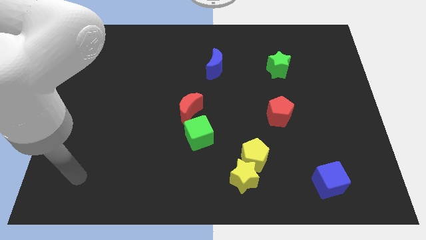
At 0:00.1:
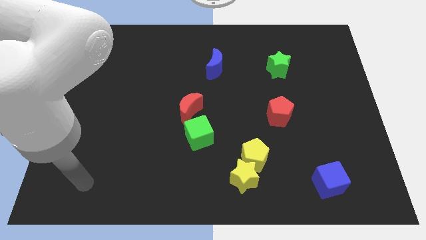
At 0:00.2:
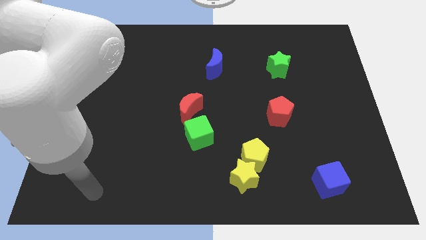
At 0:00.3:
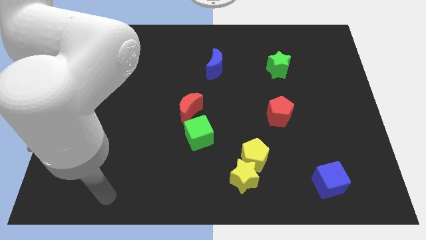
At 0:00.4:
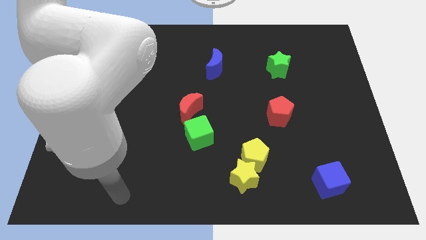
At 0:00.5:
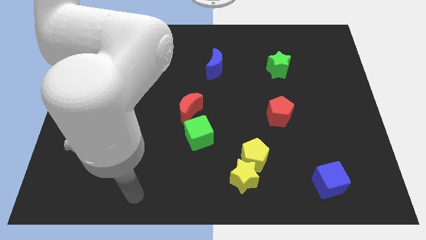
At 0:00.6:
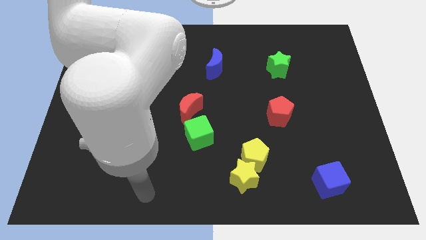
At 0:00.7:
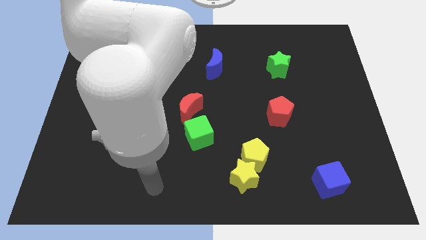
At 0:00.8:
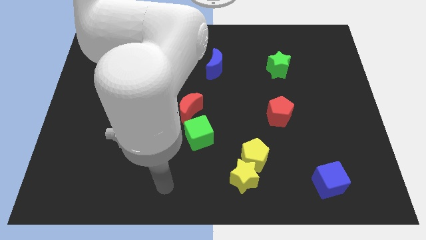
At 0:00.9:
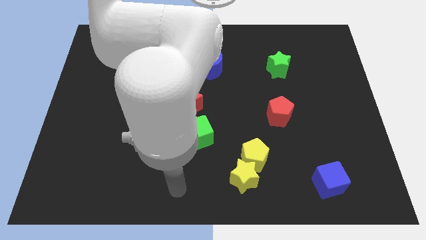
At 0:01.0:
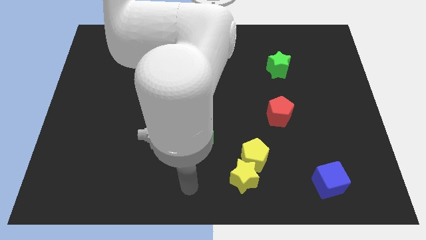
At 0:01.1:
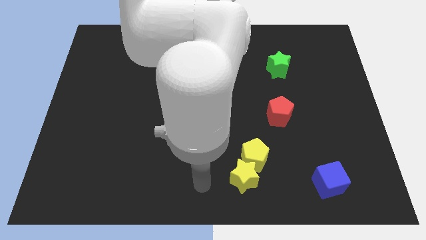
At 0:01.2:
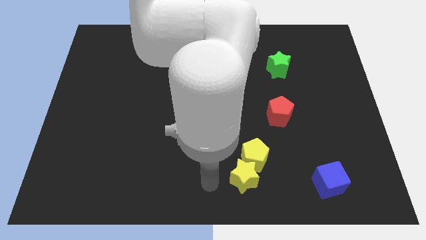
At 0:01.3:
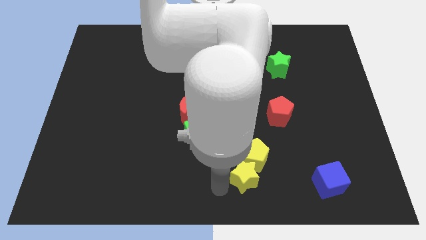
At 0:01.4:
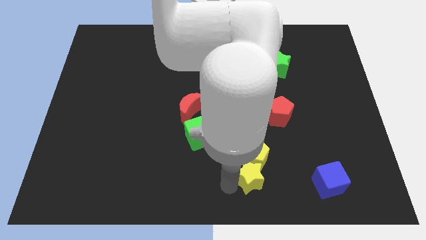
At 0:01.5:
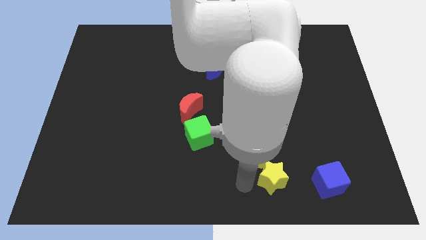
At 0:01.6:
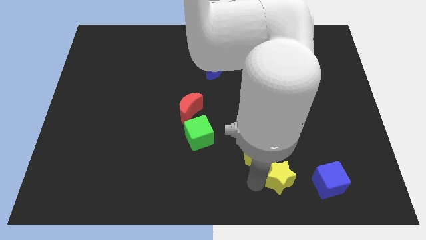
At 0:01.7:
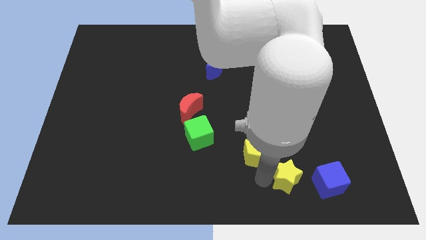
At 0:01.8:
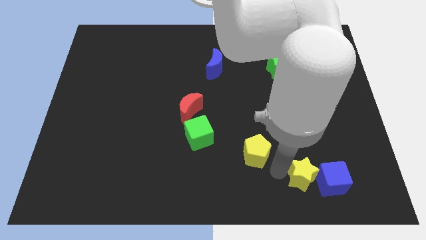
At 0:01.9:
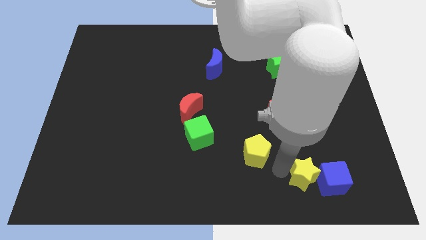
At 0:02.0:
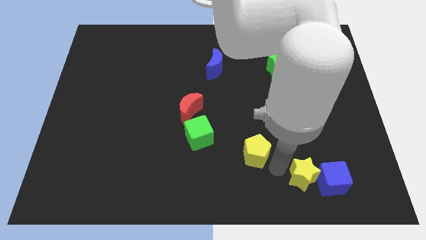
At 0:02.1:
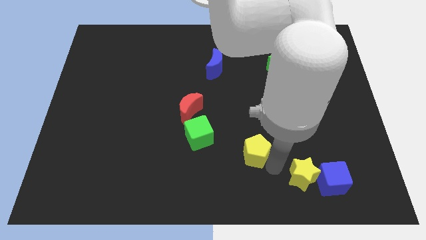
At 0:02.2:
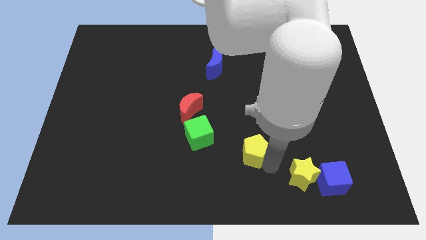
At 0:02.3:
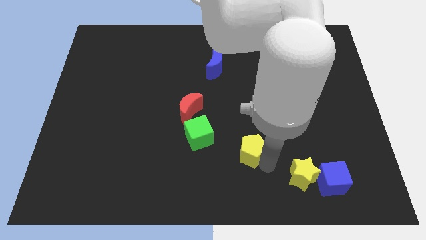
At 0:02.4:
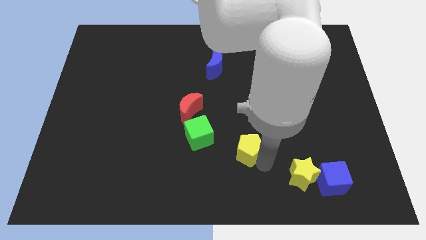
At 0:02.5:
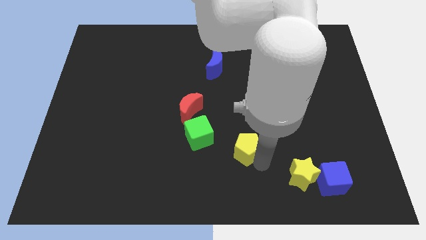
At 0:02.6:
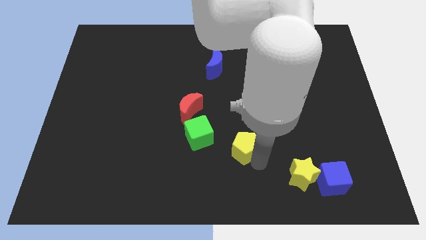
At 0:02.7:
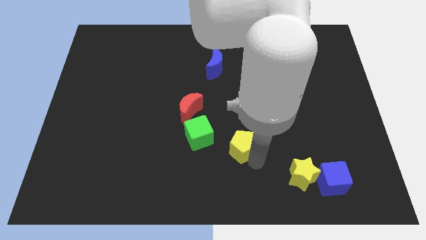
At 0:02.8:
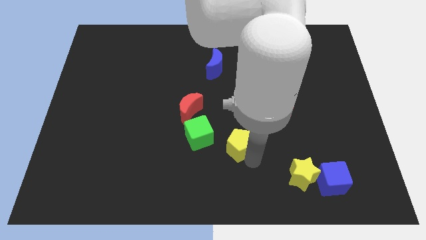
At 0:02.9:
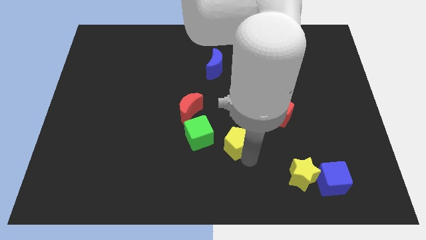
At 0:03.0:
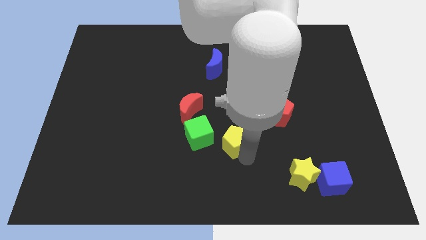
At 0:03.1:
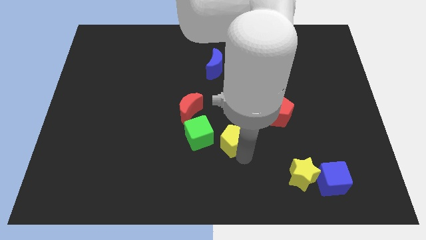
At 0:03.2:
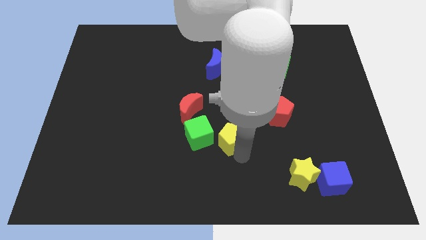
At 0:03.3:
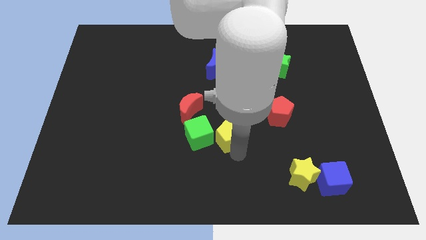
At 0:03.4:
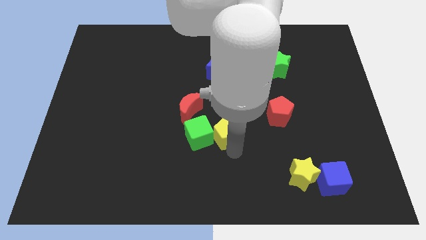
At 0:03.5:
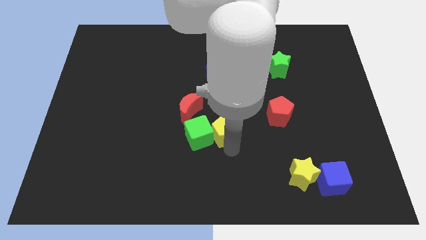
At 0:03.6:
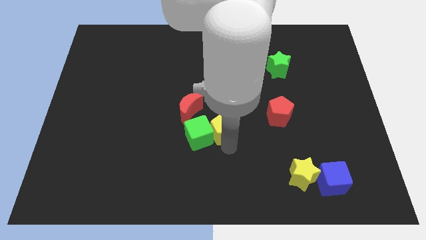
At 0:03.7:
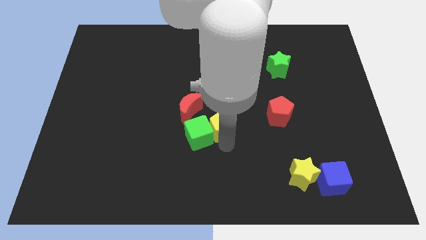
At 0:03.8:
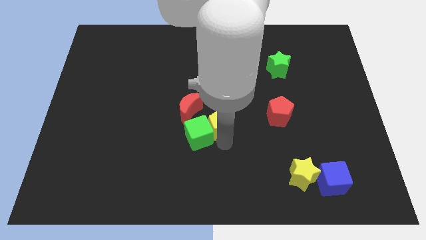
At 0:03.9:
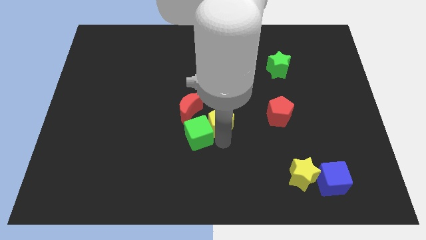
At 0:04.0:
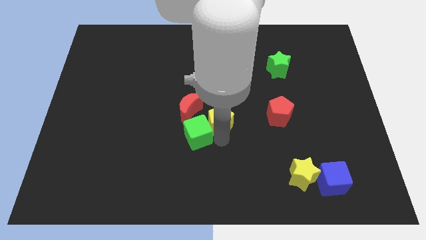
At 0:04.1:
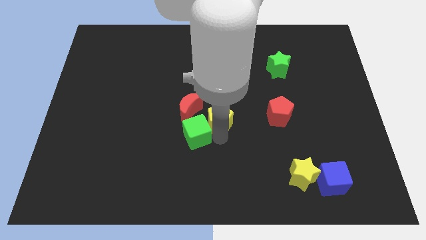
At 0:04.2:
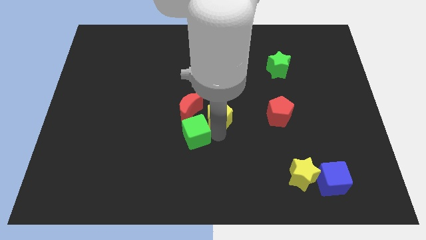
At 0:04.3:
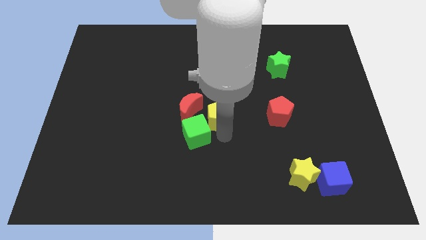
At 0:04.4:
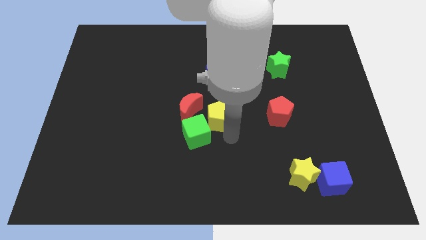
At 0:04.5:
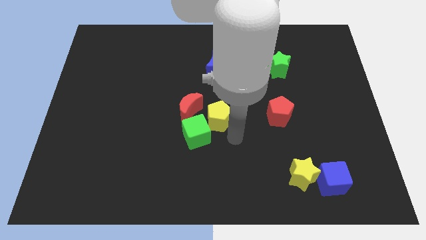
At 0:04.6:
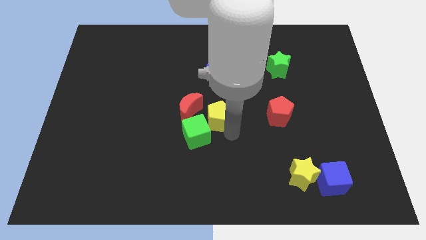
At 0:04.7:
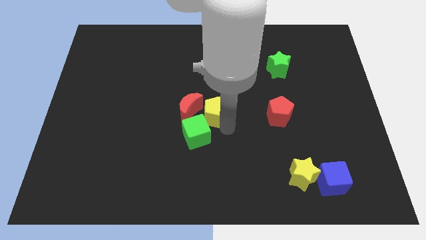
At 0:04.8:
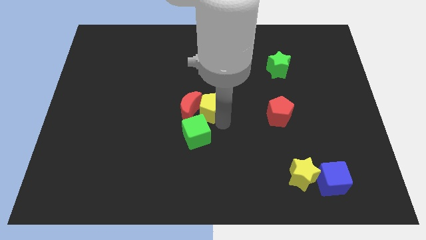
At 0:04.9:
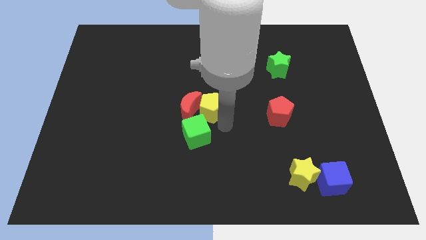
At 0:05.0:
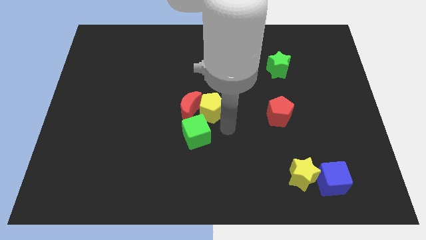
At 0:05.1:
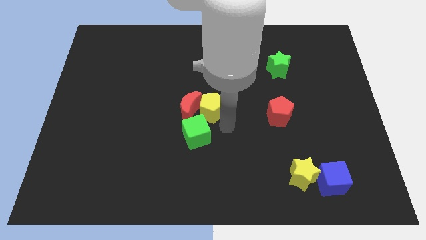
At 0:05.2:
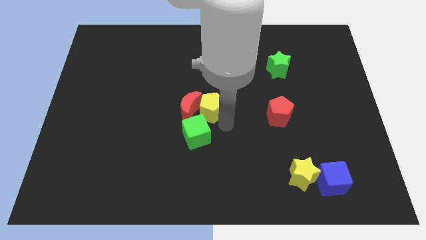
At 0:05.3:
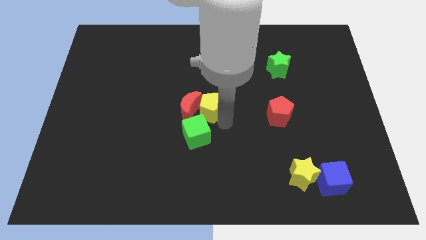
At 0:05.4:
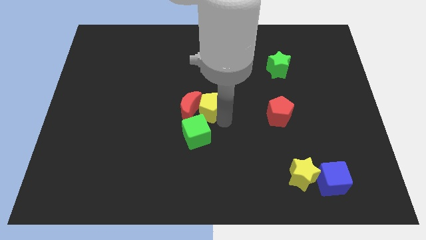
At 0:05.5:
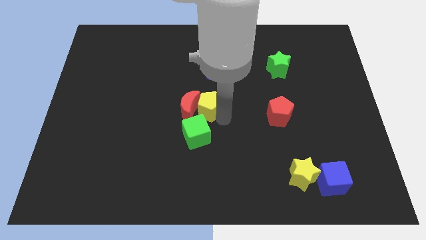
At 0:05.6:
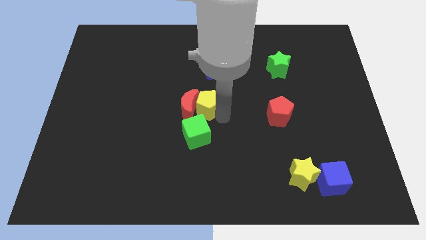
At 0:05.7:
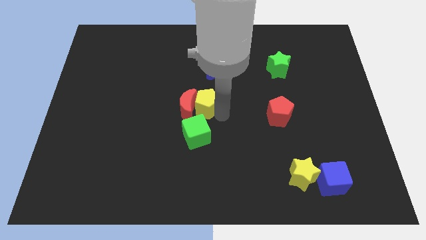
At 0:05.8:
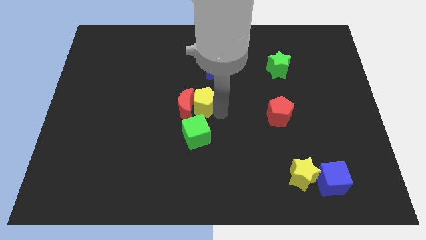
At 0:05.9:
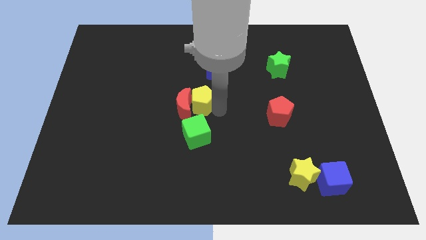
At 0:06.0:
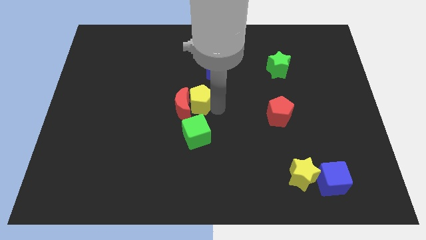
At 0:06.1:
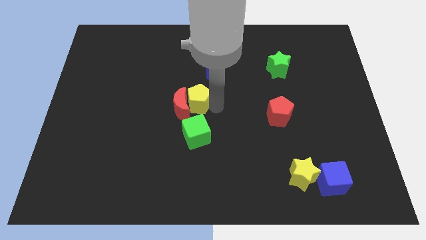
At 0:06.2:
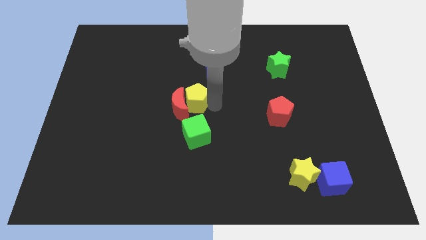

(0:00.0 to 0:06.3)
slide the yellow pentagon up and left diagonally

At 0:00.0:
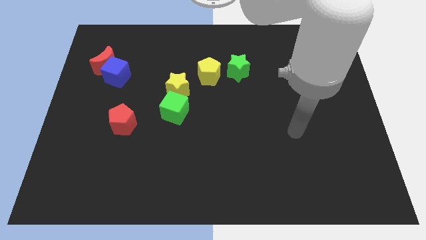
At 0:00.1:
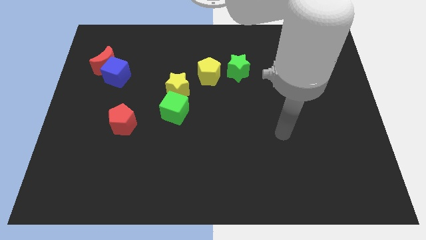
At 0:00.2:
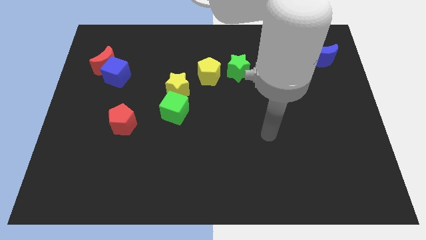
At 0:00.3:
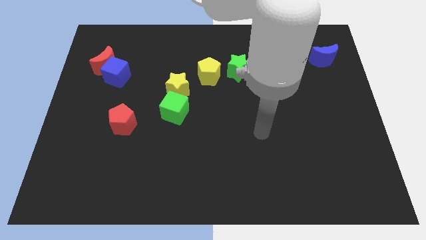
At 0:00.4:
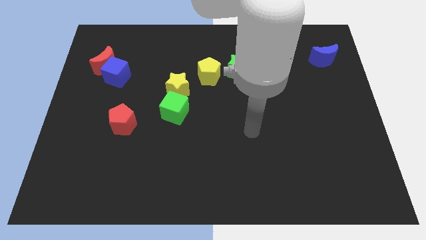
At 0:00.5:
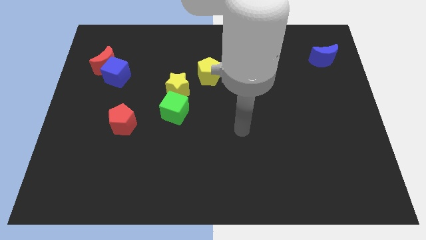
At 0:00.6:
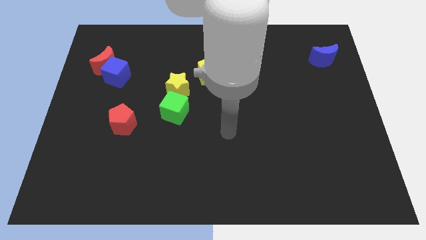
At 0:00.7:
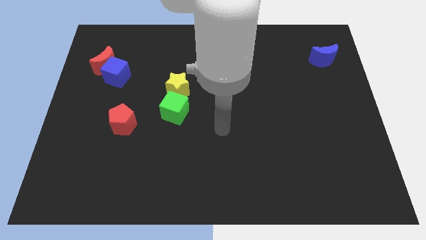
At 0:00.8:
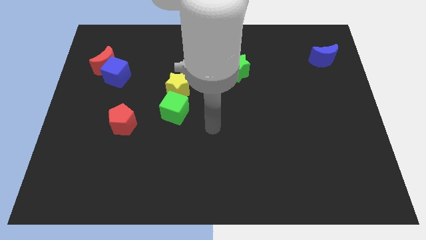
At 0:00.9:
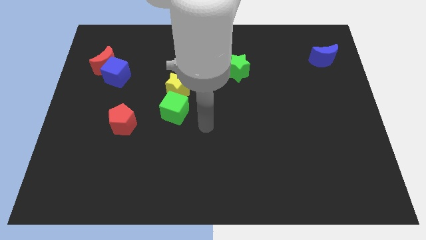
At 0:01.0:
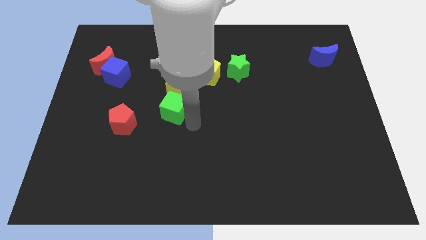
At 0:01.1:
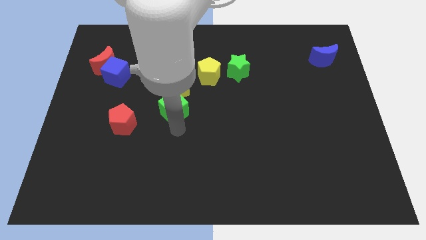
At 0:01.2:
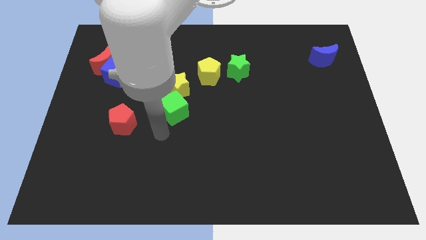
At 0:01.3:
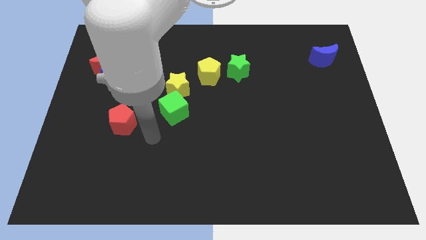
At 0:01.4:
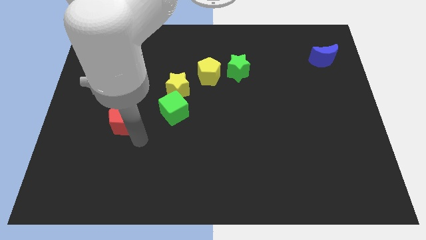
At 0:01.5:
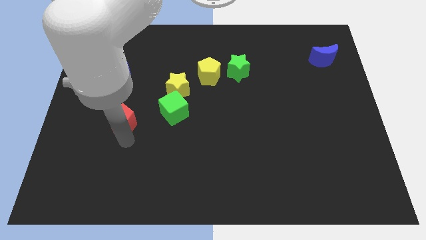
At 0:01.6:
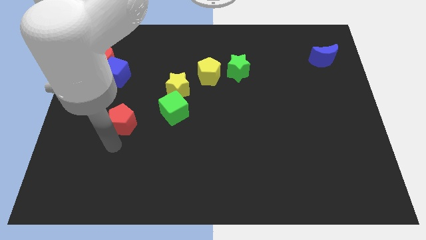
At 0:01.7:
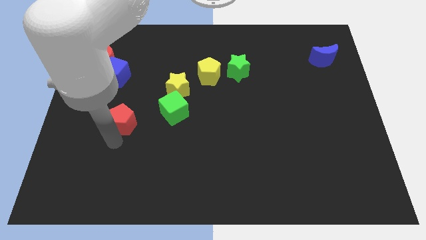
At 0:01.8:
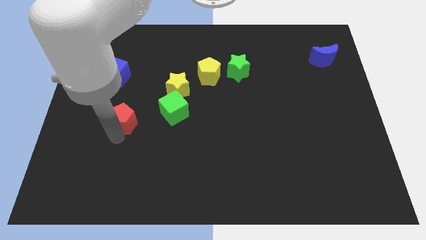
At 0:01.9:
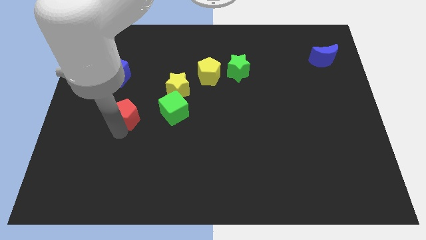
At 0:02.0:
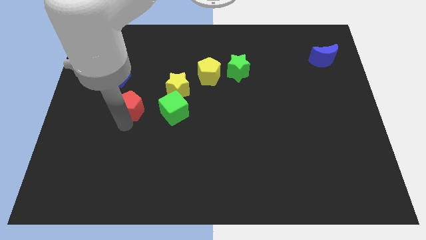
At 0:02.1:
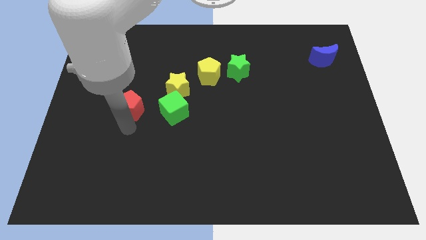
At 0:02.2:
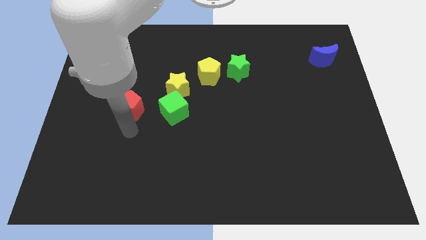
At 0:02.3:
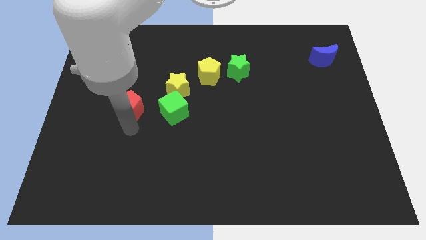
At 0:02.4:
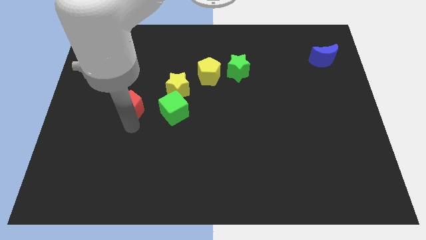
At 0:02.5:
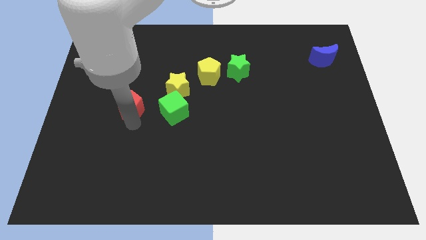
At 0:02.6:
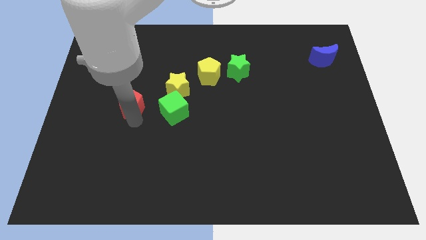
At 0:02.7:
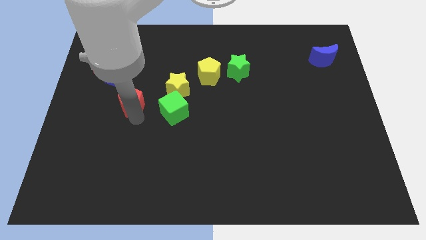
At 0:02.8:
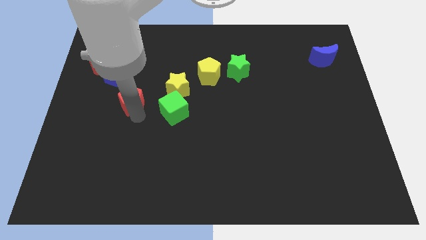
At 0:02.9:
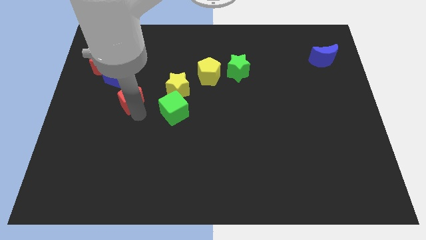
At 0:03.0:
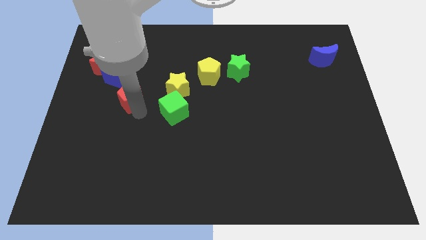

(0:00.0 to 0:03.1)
move the red pentagon somewhat upwards
